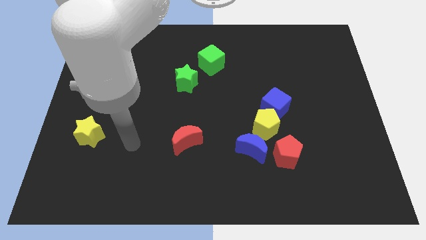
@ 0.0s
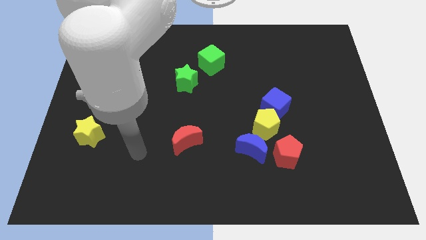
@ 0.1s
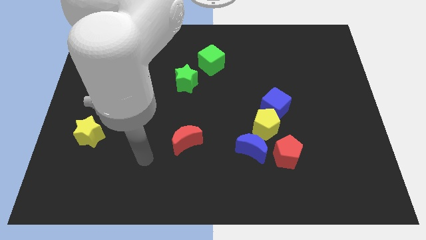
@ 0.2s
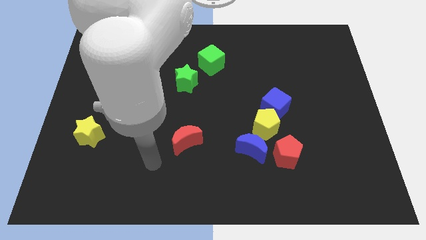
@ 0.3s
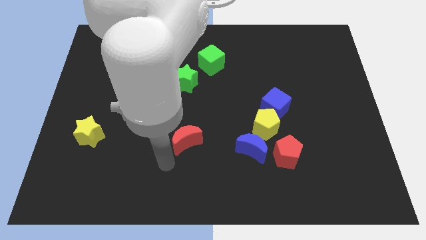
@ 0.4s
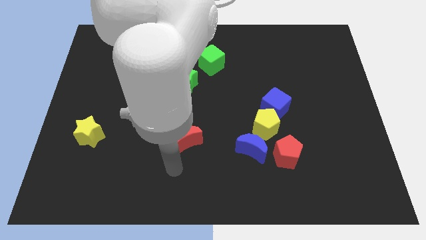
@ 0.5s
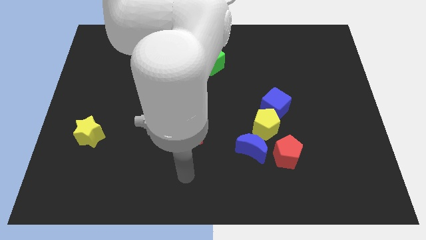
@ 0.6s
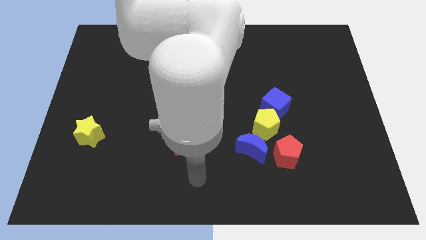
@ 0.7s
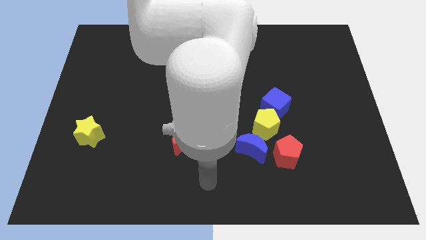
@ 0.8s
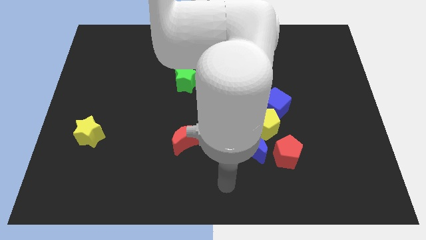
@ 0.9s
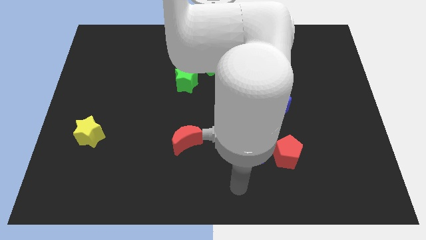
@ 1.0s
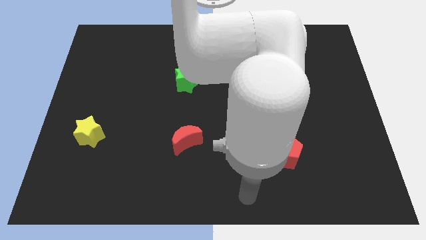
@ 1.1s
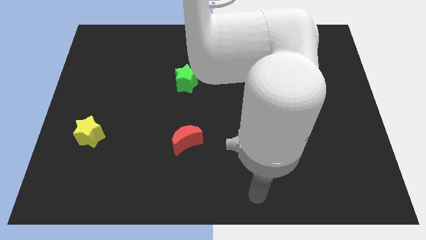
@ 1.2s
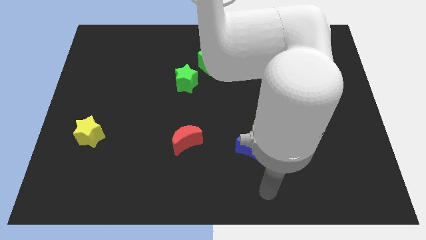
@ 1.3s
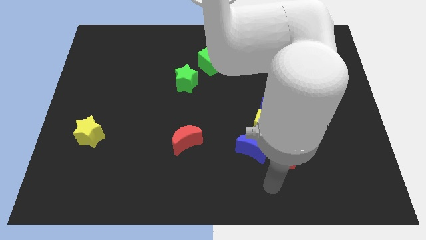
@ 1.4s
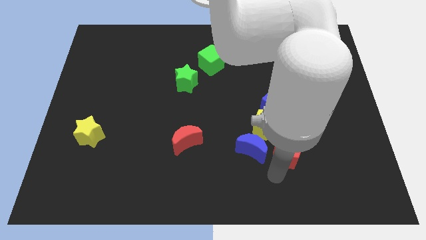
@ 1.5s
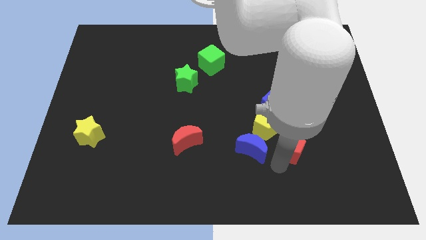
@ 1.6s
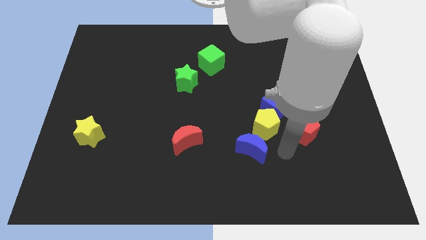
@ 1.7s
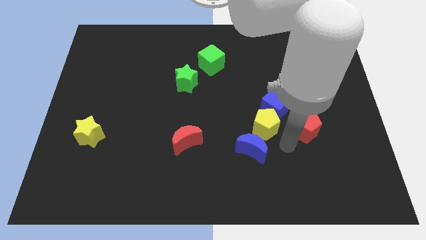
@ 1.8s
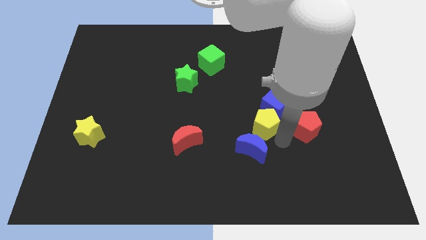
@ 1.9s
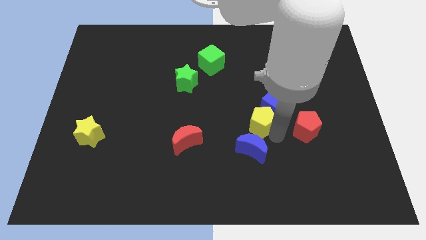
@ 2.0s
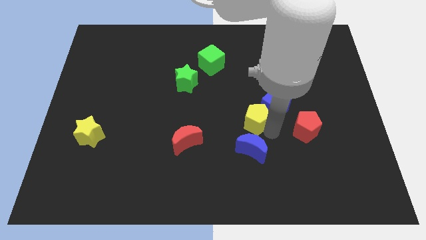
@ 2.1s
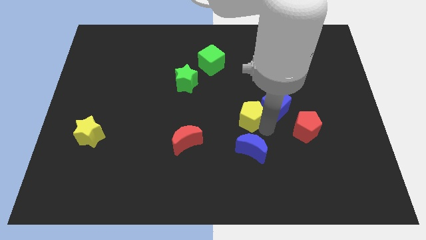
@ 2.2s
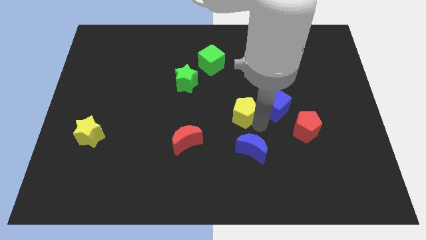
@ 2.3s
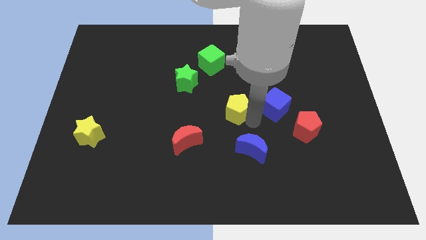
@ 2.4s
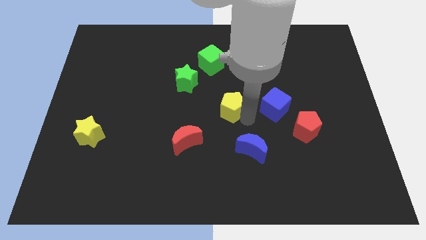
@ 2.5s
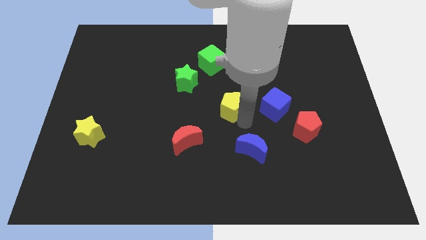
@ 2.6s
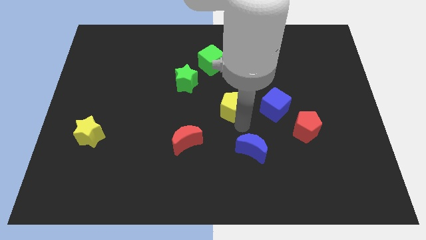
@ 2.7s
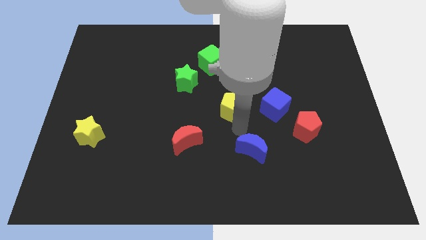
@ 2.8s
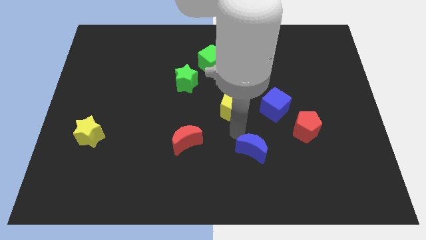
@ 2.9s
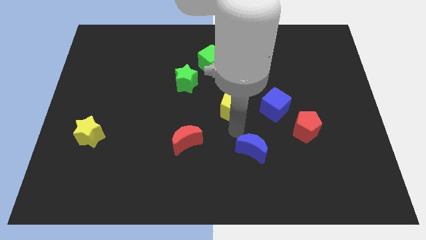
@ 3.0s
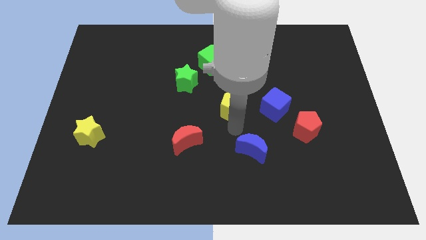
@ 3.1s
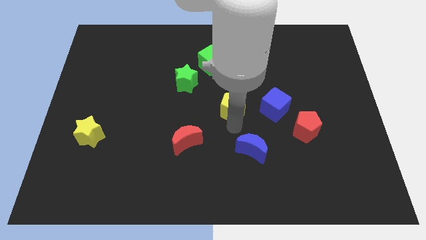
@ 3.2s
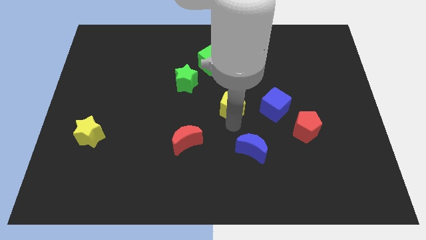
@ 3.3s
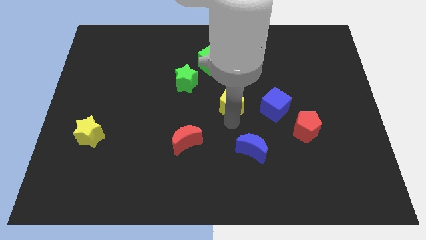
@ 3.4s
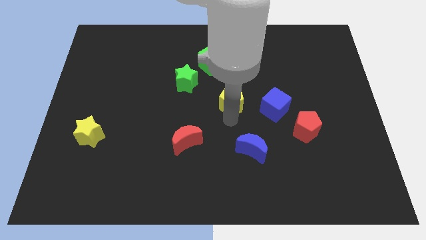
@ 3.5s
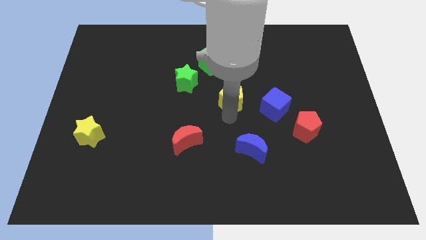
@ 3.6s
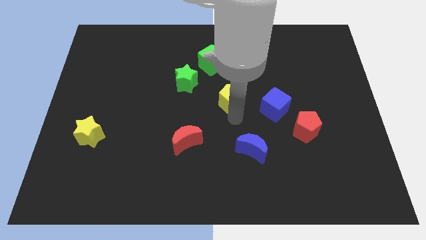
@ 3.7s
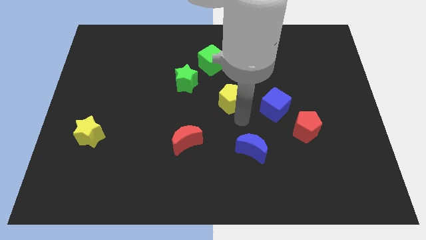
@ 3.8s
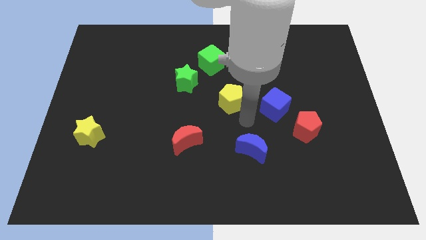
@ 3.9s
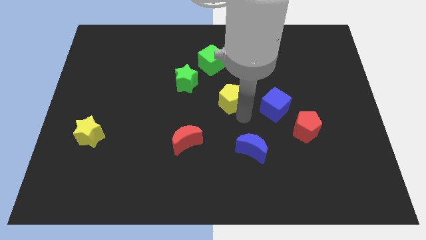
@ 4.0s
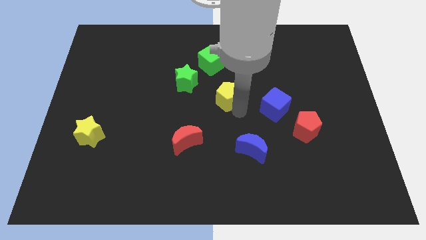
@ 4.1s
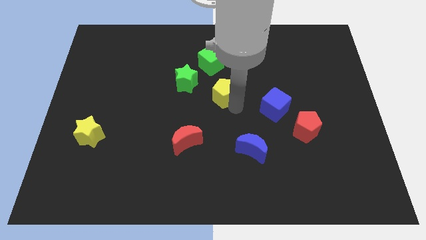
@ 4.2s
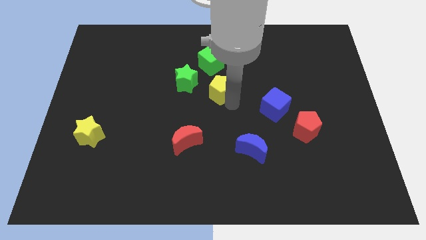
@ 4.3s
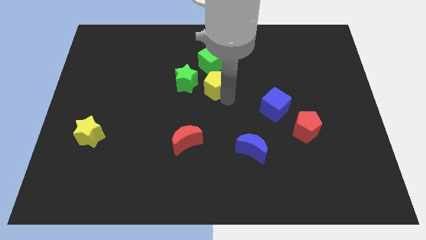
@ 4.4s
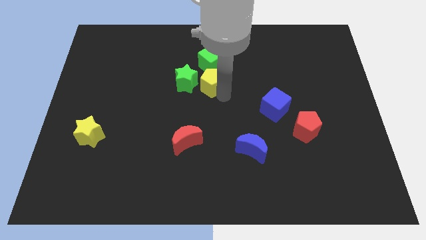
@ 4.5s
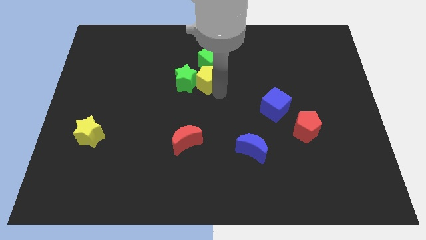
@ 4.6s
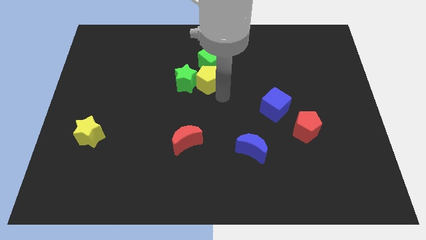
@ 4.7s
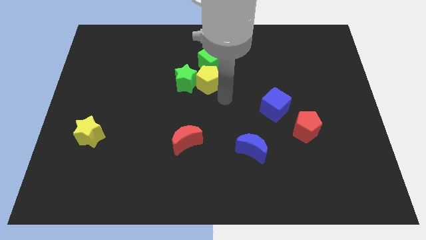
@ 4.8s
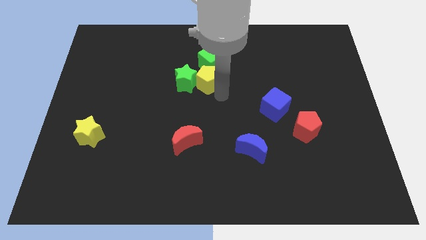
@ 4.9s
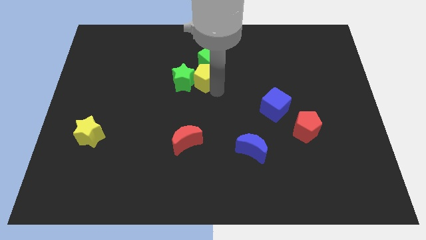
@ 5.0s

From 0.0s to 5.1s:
push the yellow pentagon up and to the left diagonally

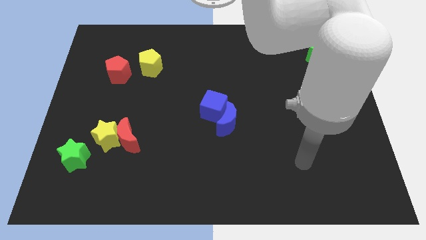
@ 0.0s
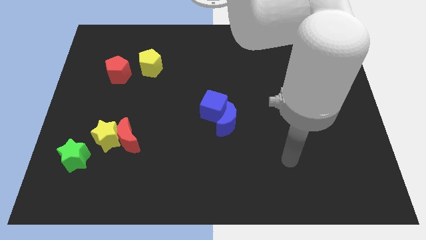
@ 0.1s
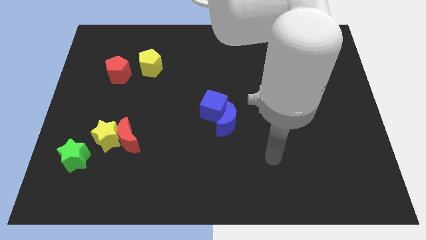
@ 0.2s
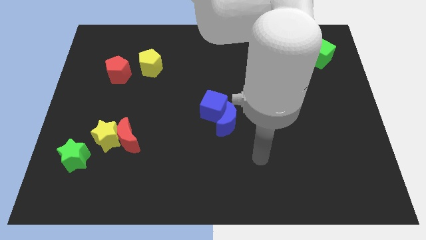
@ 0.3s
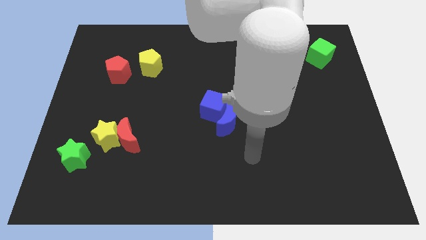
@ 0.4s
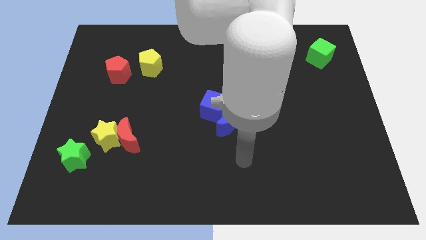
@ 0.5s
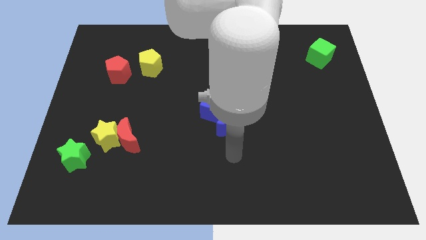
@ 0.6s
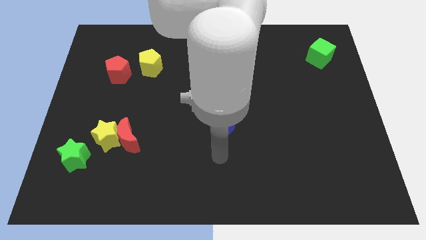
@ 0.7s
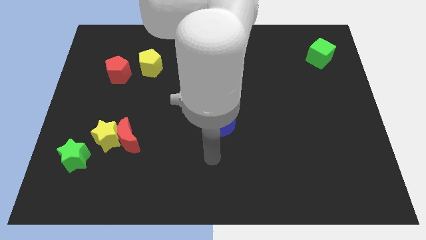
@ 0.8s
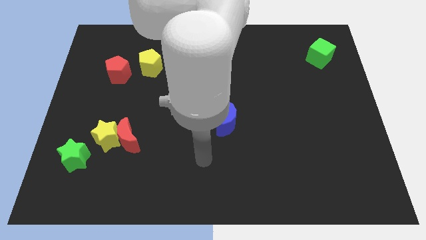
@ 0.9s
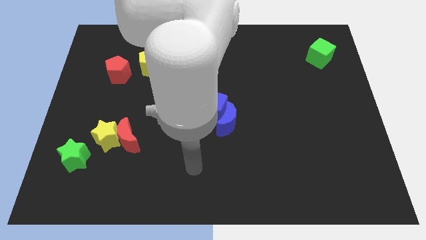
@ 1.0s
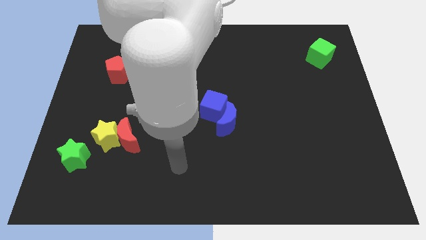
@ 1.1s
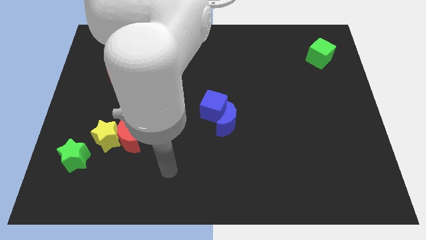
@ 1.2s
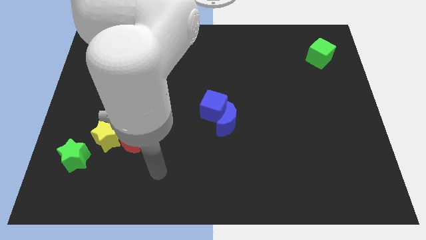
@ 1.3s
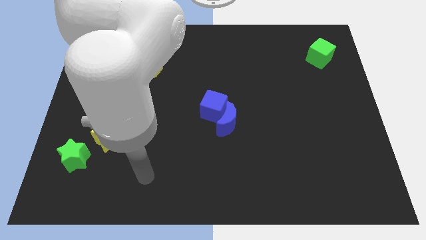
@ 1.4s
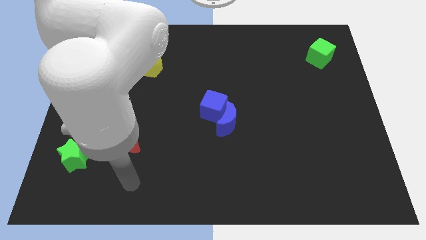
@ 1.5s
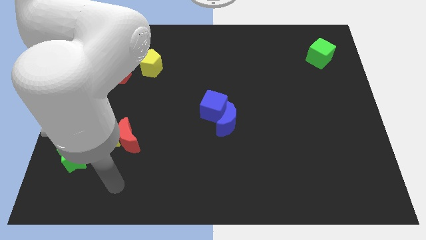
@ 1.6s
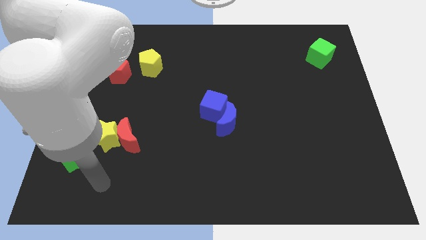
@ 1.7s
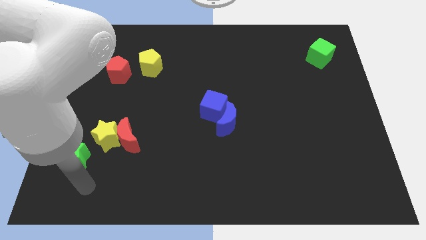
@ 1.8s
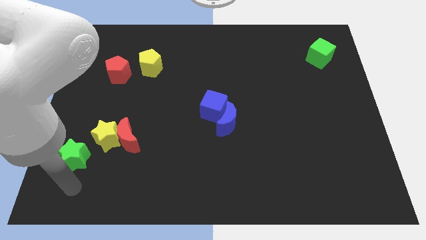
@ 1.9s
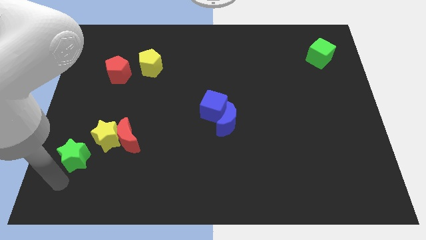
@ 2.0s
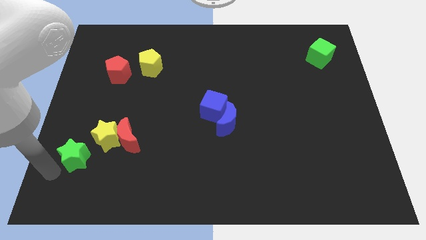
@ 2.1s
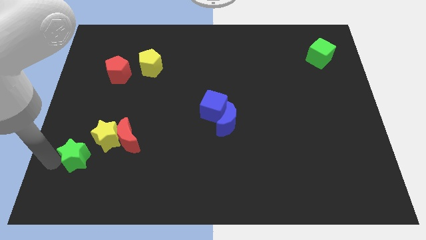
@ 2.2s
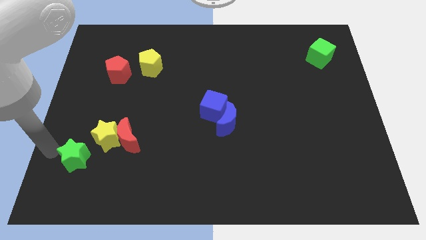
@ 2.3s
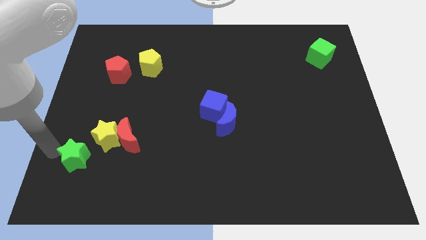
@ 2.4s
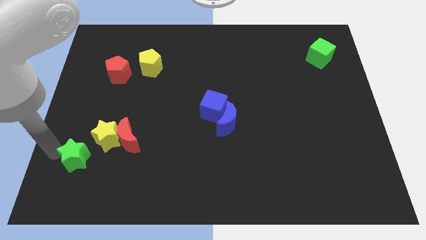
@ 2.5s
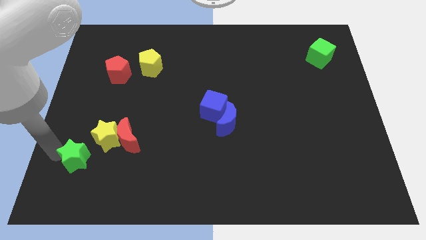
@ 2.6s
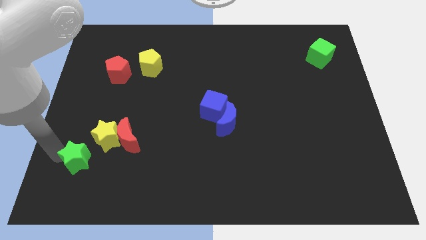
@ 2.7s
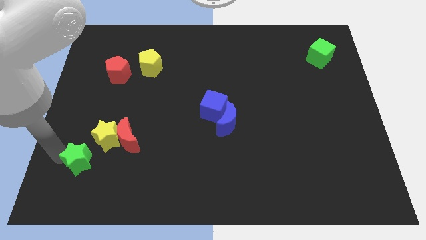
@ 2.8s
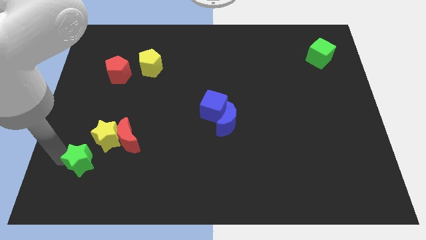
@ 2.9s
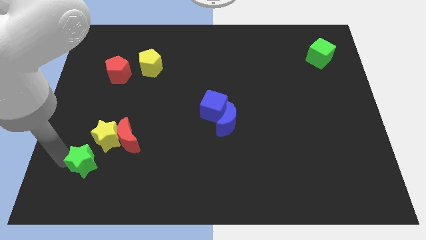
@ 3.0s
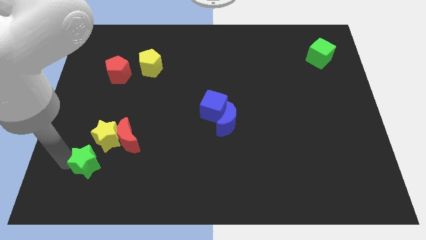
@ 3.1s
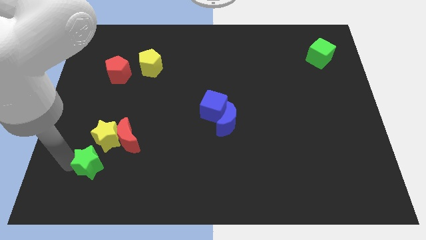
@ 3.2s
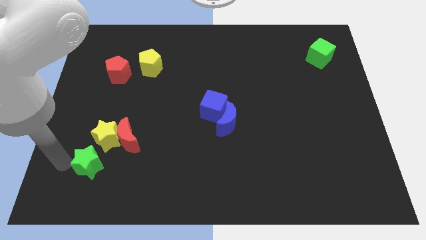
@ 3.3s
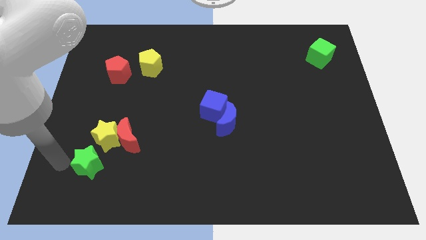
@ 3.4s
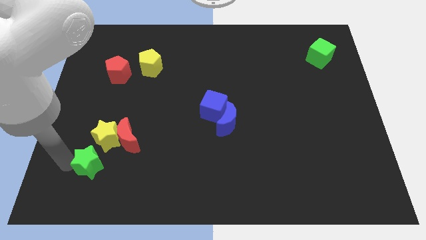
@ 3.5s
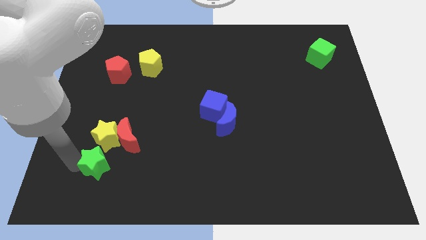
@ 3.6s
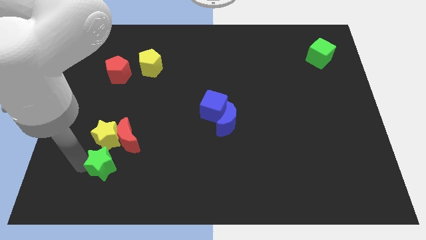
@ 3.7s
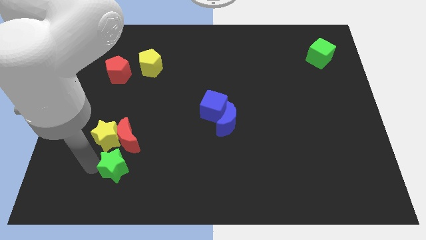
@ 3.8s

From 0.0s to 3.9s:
slightly slide the green star to the right
